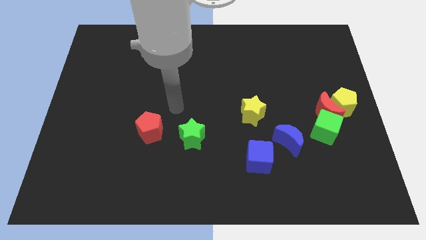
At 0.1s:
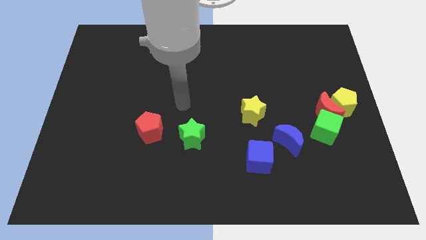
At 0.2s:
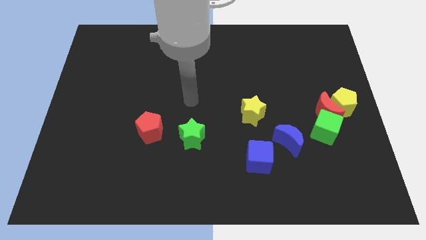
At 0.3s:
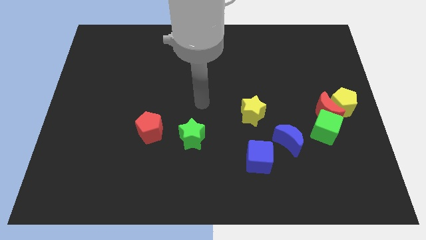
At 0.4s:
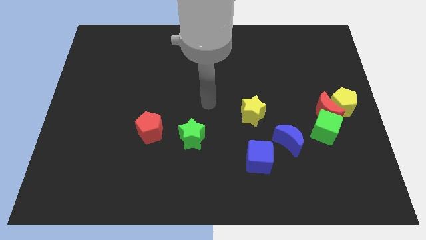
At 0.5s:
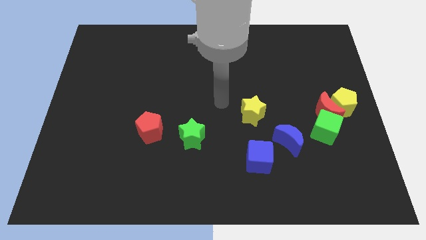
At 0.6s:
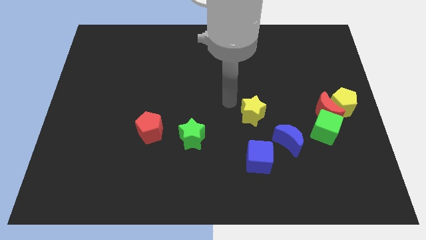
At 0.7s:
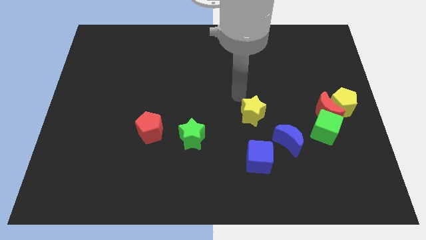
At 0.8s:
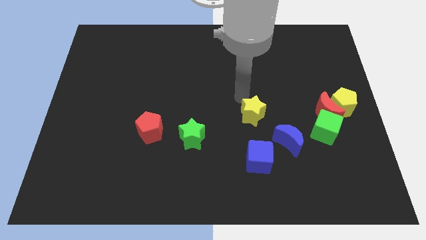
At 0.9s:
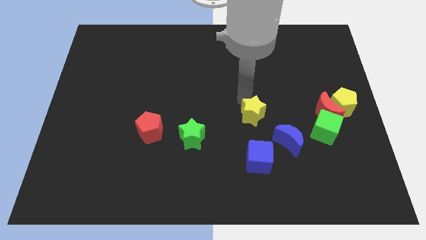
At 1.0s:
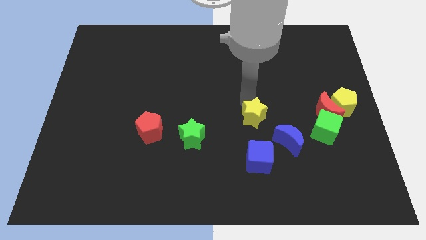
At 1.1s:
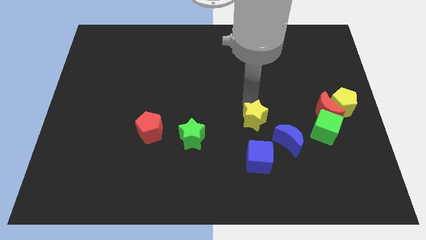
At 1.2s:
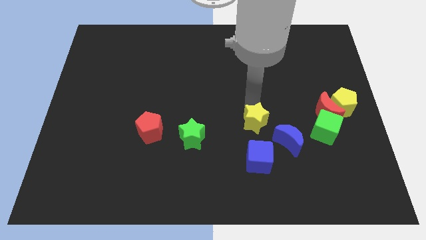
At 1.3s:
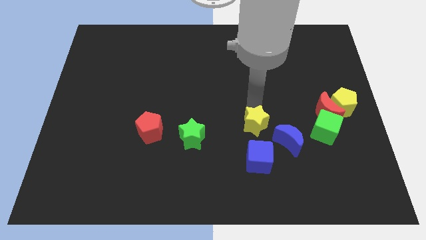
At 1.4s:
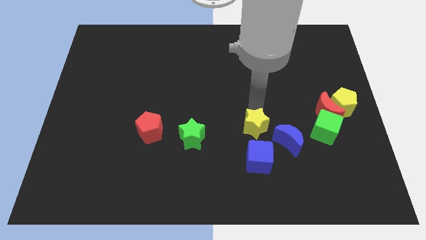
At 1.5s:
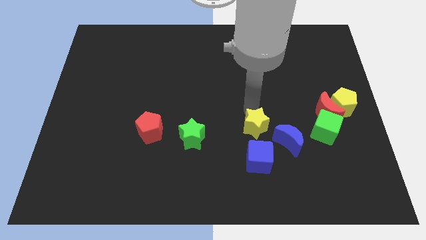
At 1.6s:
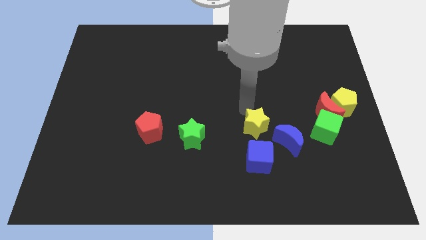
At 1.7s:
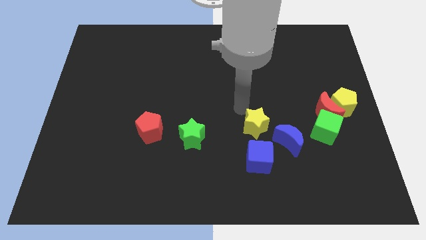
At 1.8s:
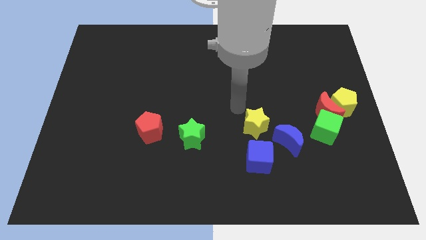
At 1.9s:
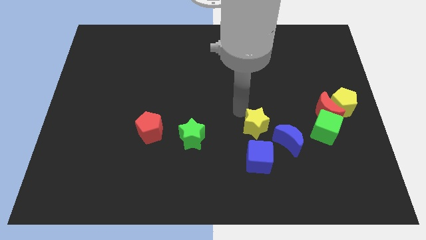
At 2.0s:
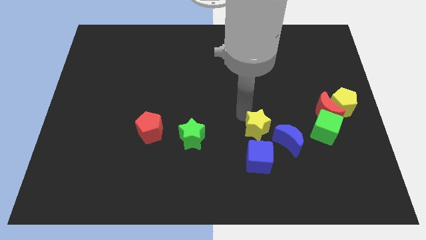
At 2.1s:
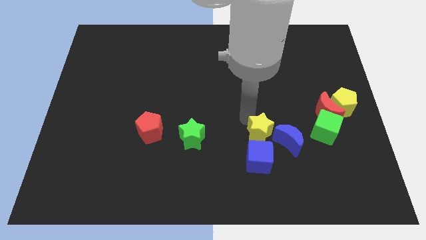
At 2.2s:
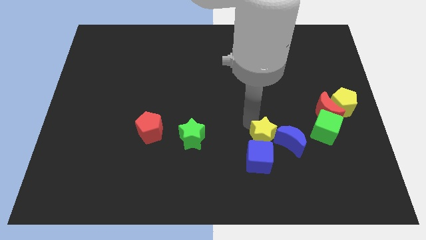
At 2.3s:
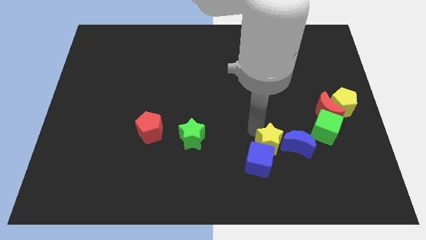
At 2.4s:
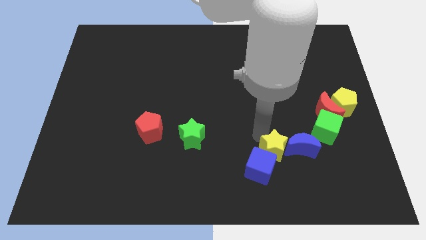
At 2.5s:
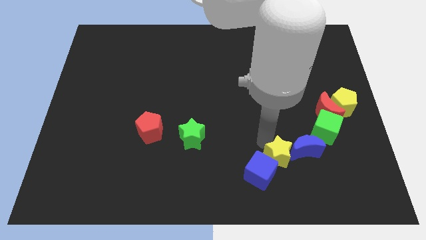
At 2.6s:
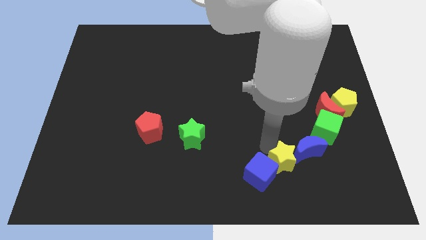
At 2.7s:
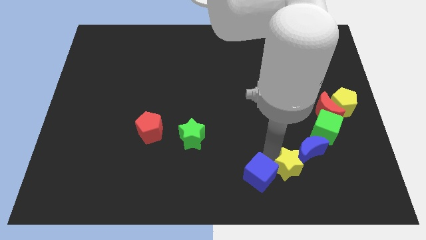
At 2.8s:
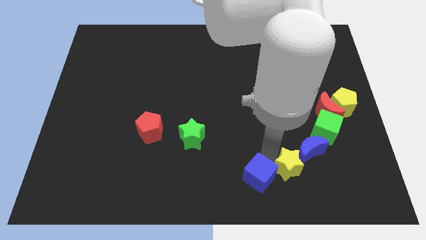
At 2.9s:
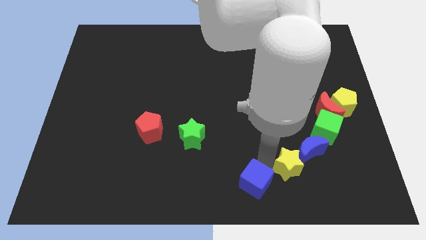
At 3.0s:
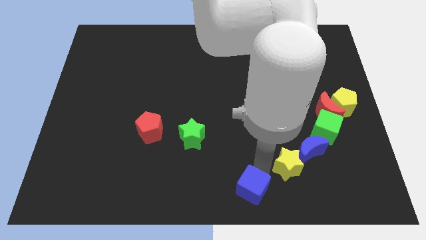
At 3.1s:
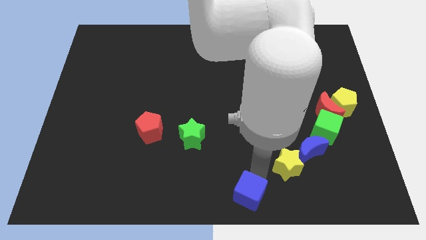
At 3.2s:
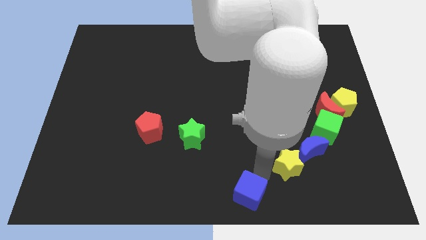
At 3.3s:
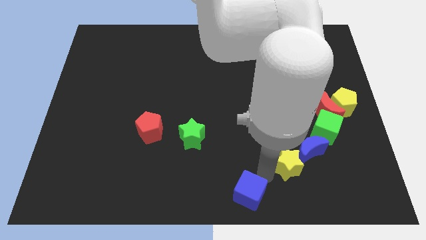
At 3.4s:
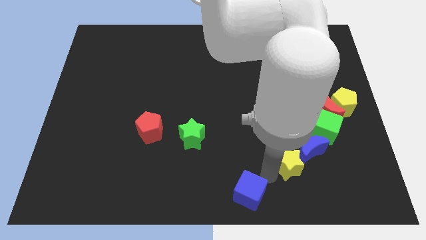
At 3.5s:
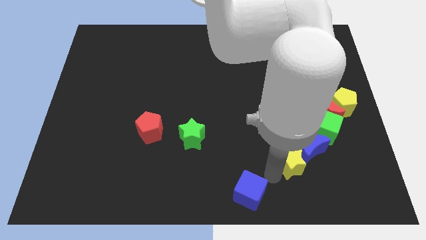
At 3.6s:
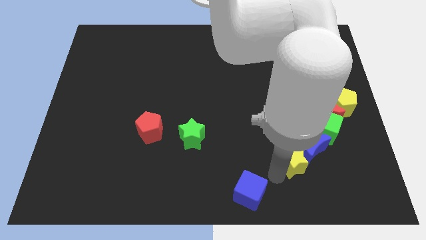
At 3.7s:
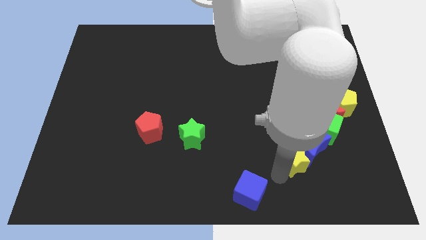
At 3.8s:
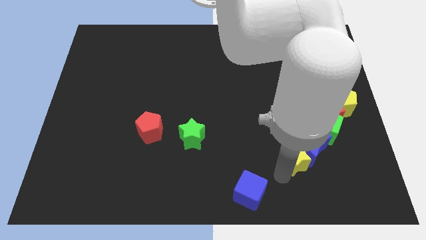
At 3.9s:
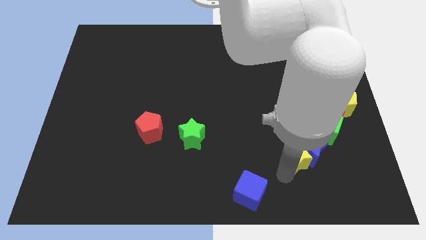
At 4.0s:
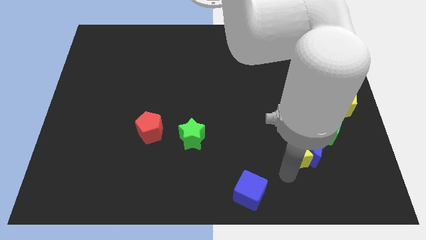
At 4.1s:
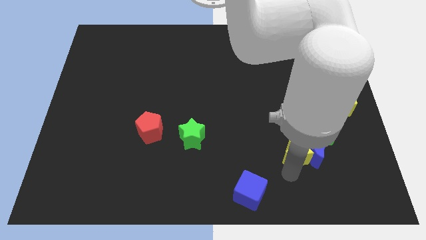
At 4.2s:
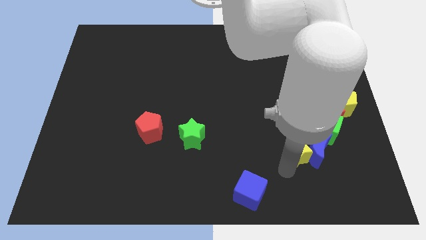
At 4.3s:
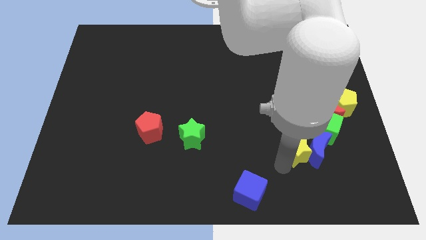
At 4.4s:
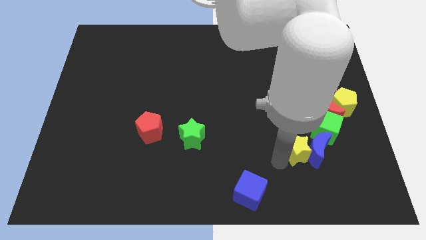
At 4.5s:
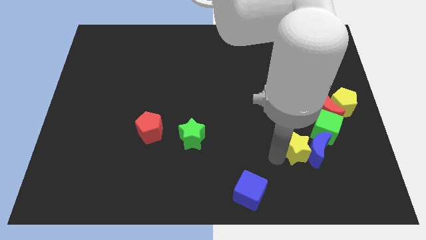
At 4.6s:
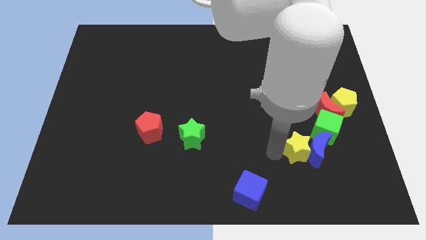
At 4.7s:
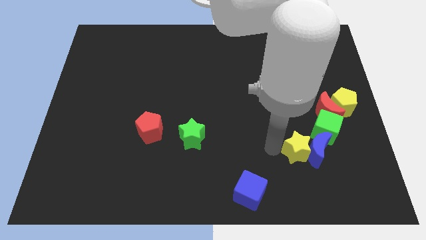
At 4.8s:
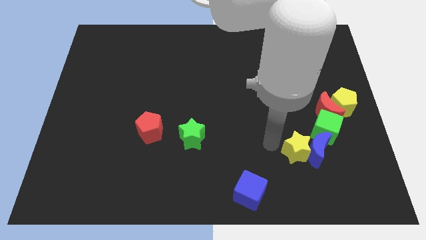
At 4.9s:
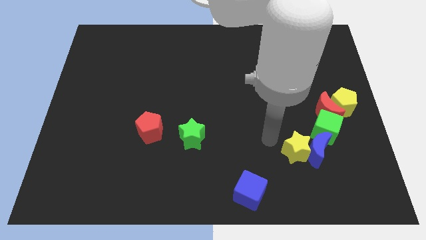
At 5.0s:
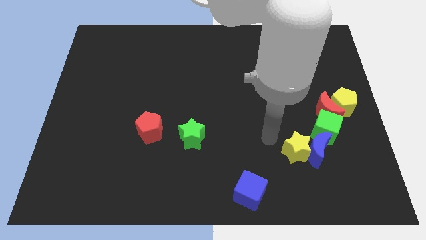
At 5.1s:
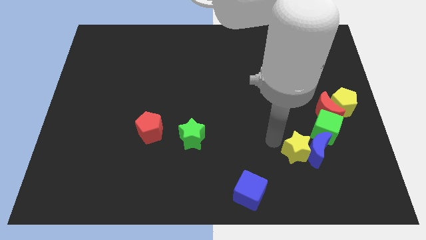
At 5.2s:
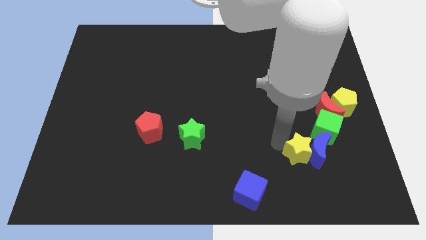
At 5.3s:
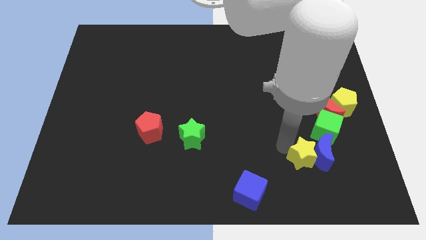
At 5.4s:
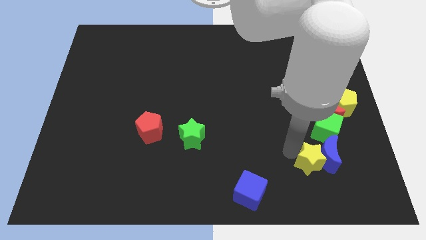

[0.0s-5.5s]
put the yellow star below the green cube

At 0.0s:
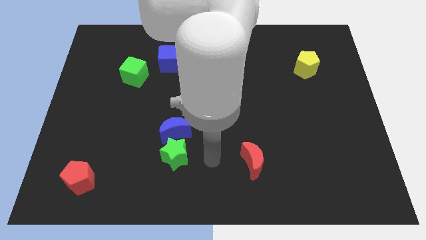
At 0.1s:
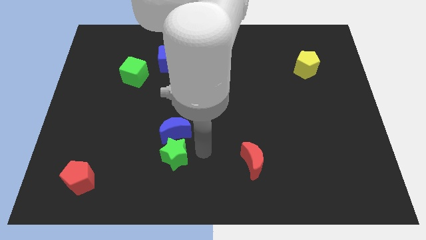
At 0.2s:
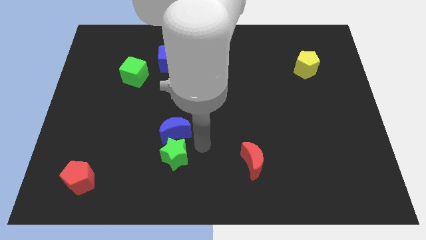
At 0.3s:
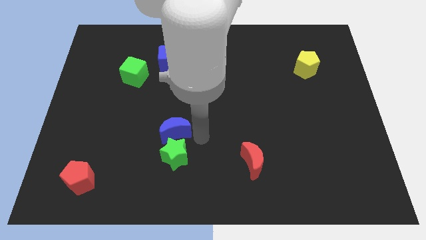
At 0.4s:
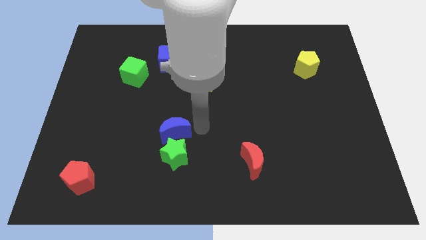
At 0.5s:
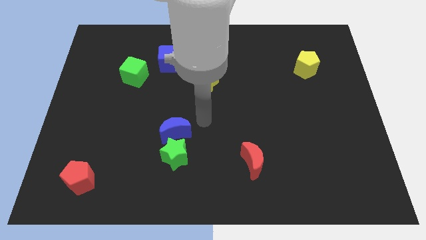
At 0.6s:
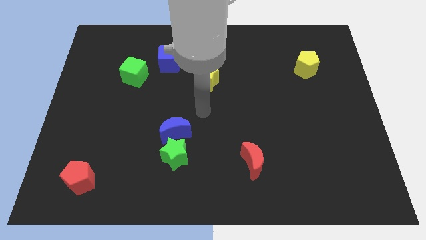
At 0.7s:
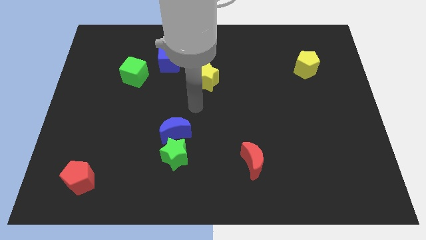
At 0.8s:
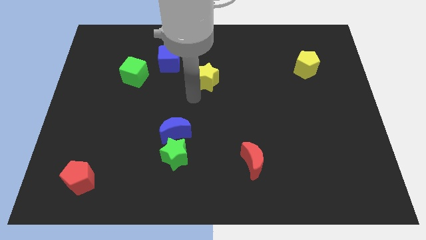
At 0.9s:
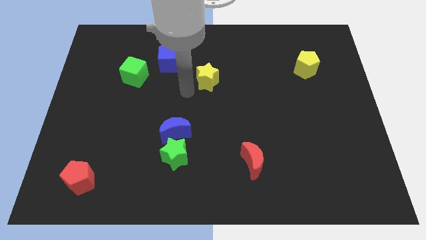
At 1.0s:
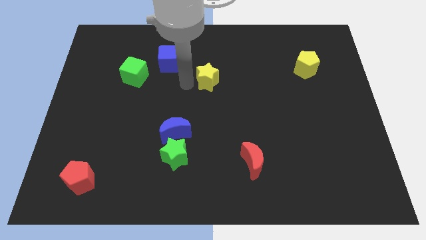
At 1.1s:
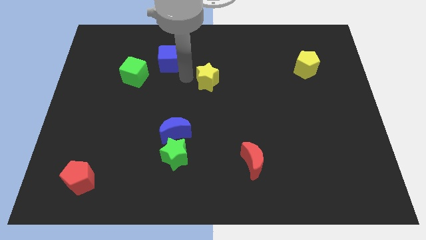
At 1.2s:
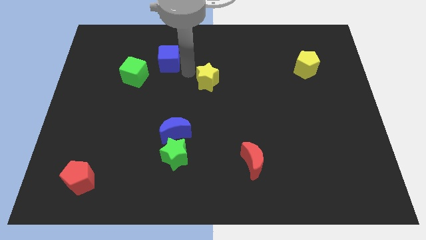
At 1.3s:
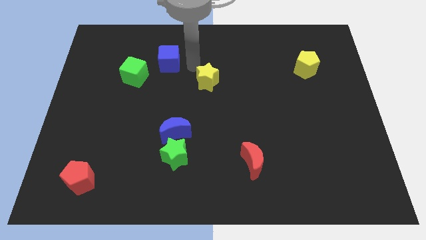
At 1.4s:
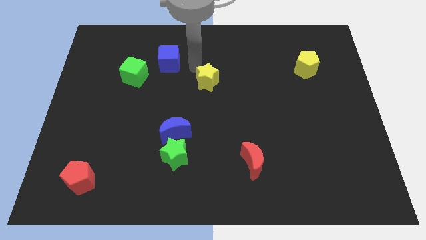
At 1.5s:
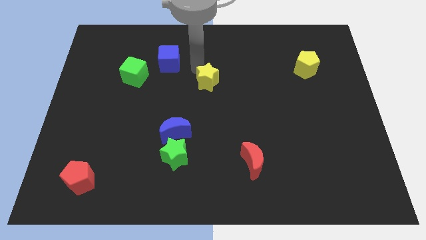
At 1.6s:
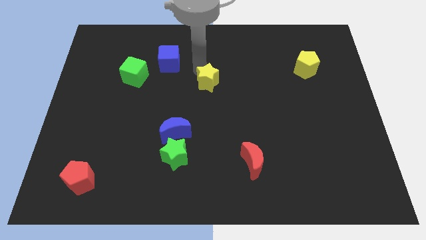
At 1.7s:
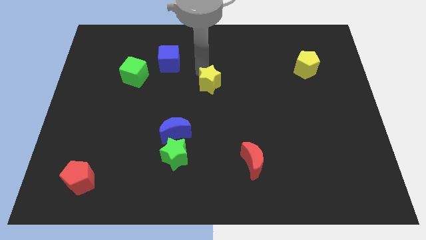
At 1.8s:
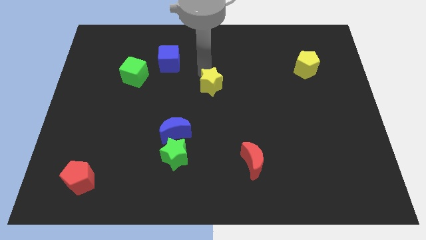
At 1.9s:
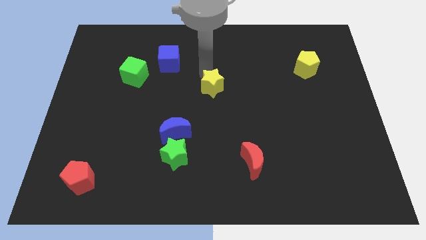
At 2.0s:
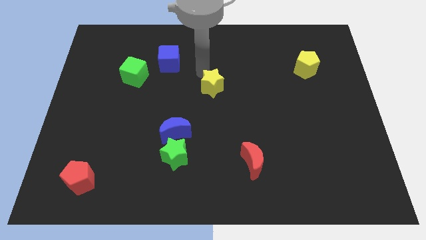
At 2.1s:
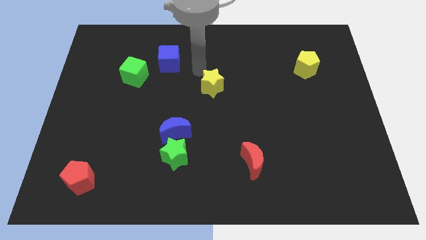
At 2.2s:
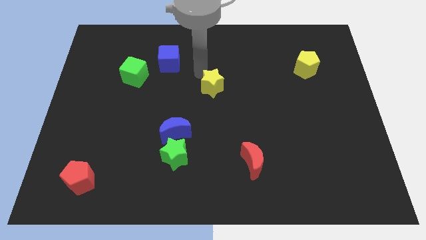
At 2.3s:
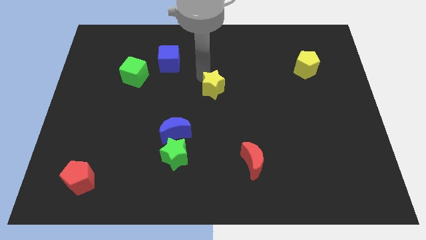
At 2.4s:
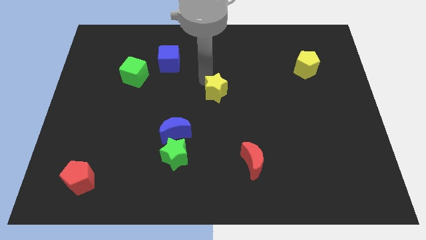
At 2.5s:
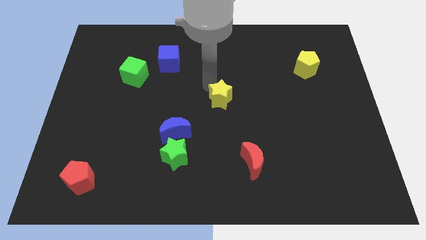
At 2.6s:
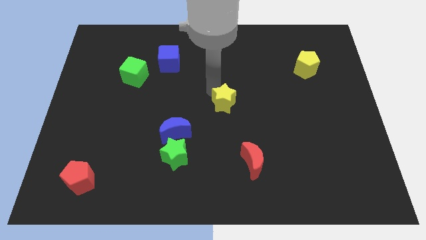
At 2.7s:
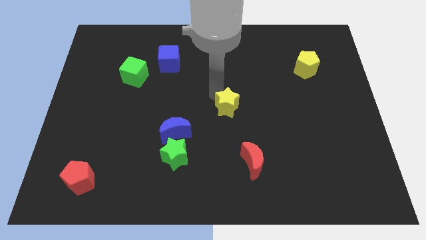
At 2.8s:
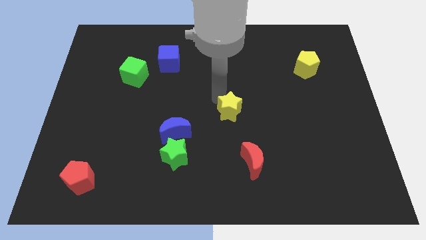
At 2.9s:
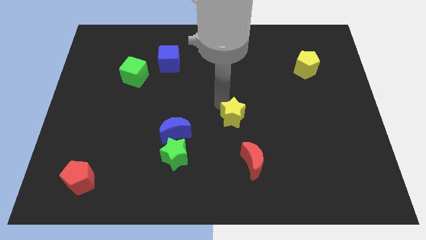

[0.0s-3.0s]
push the yellow star to the top of the red moon
